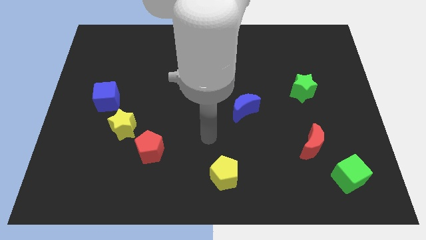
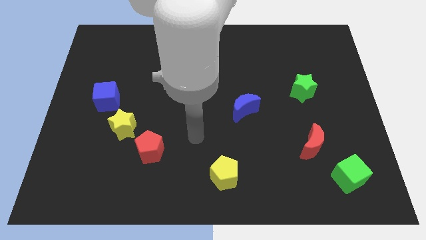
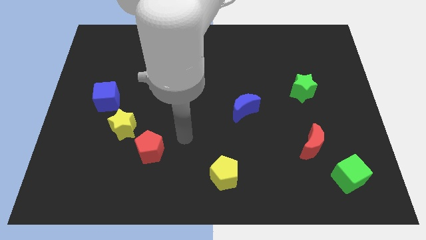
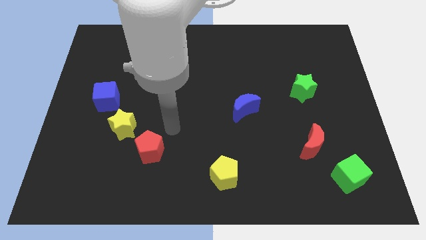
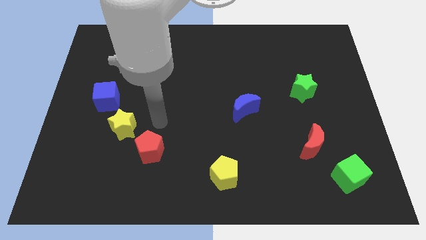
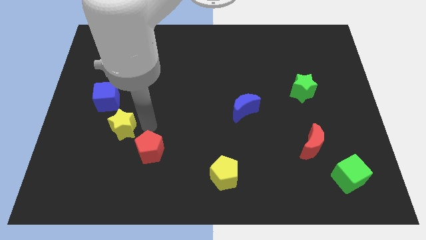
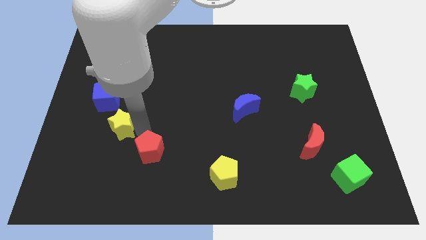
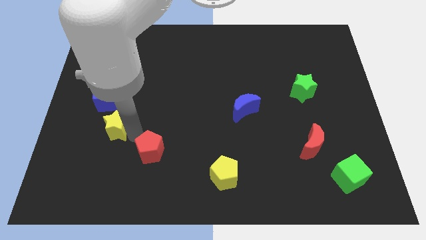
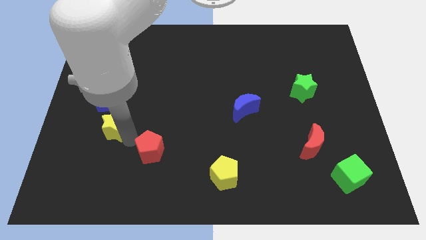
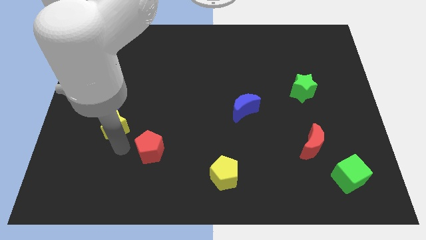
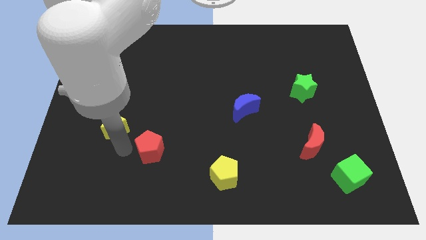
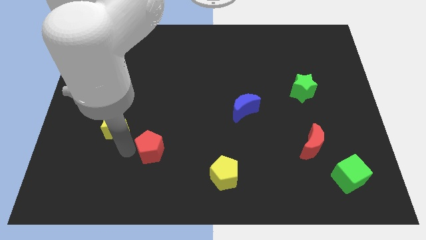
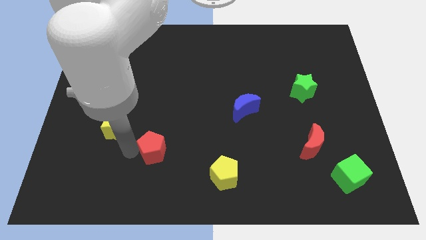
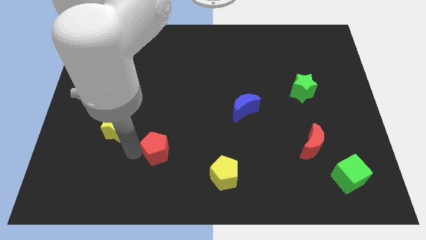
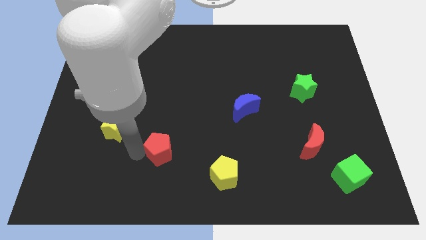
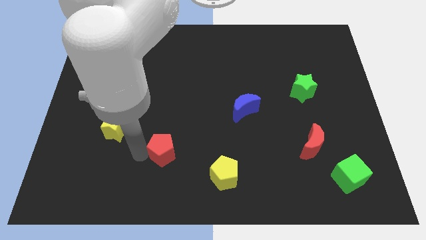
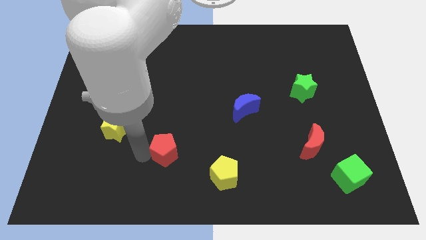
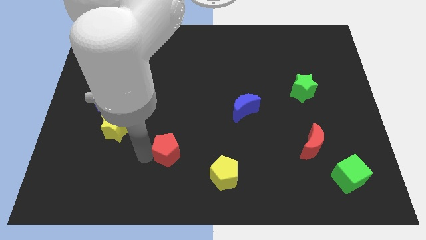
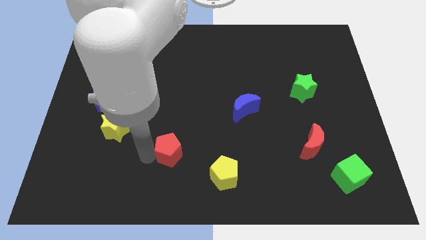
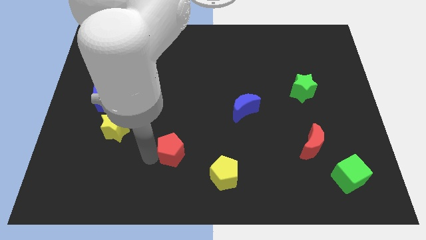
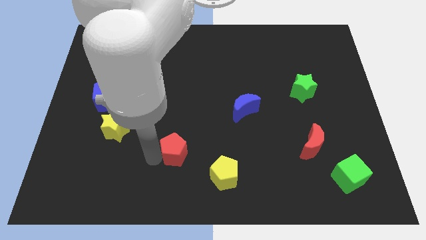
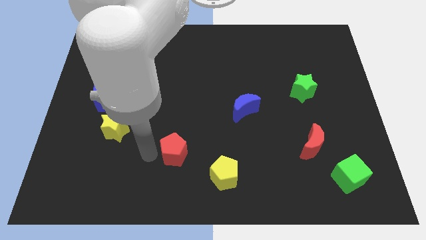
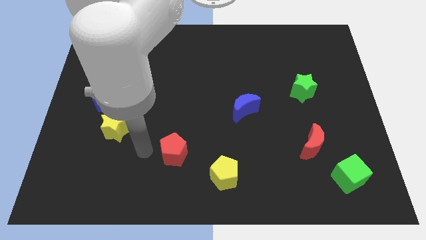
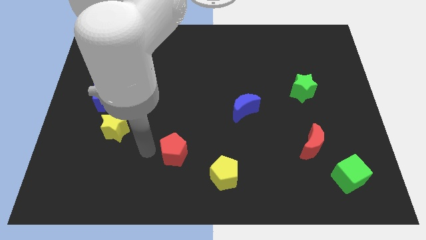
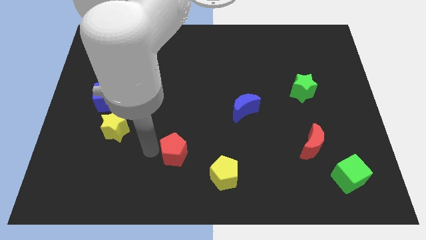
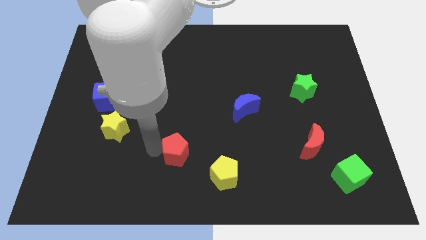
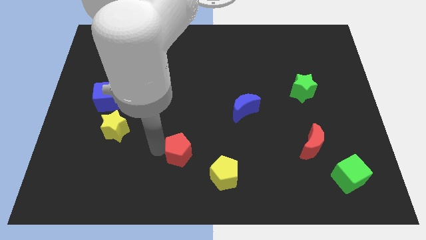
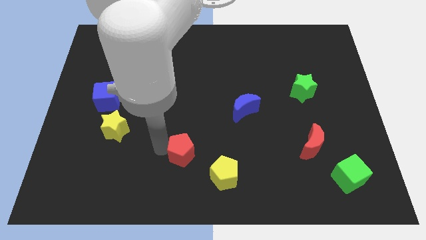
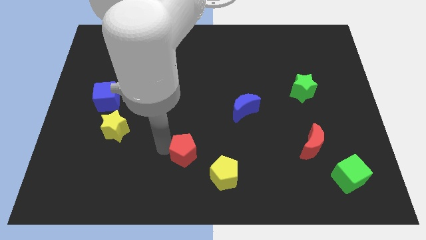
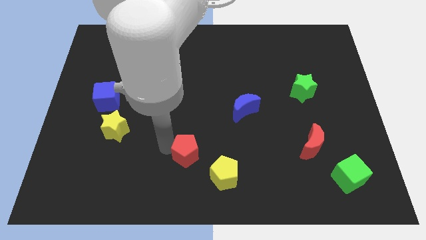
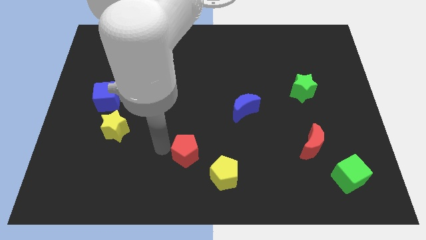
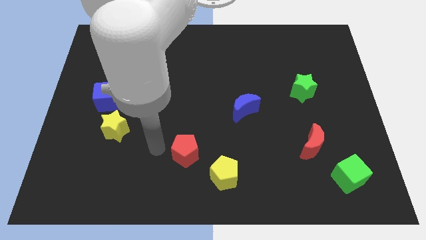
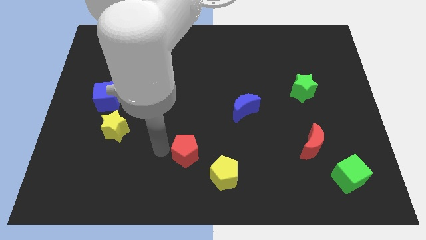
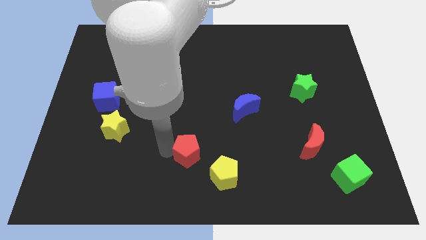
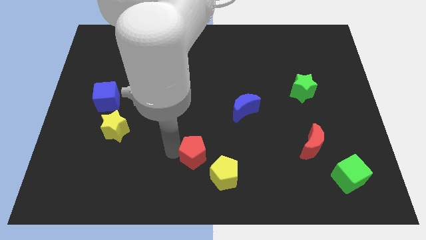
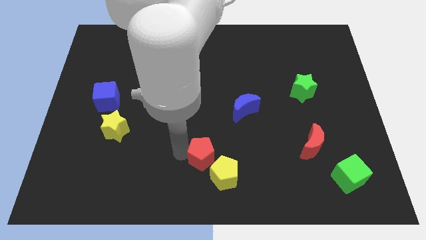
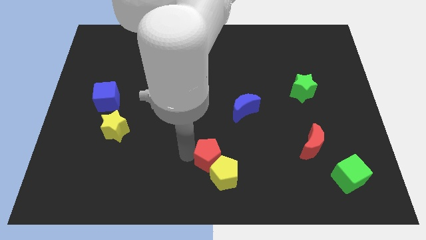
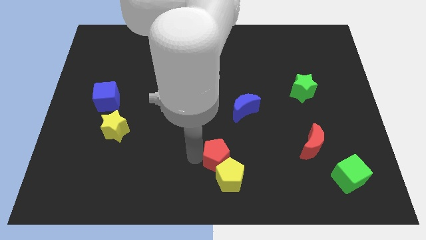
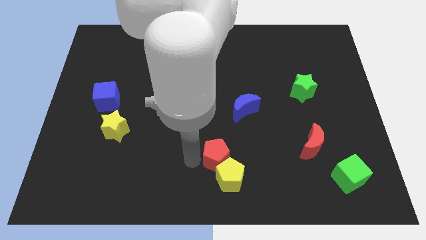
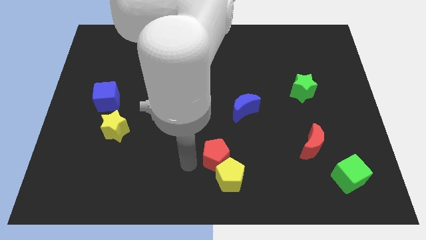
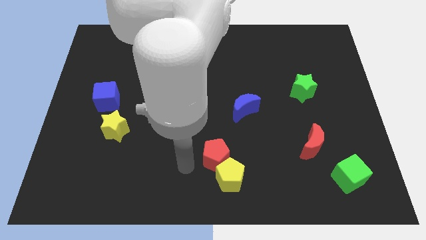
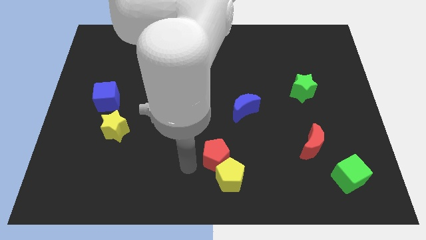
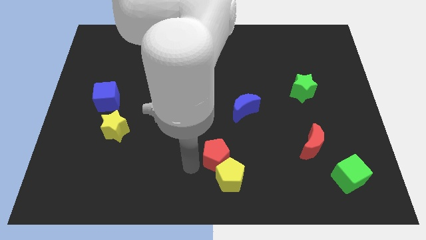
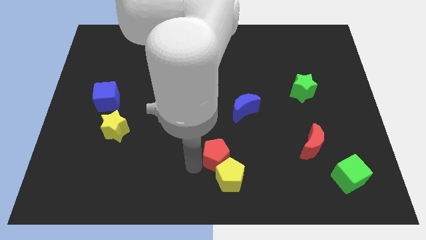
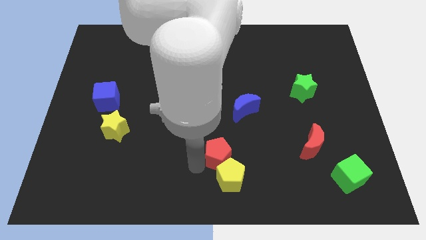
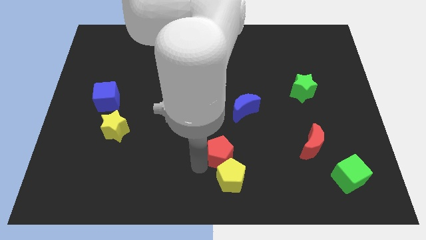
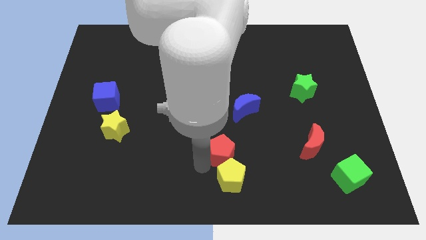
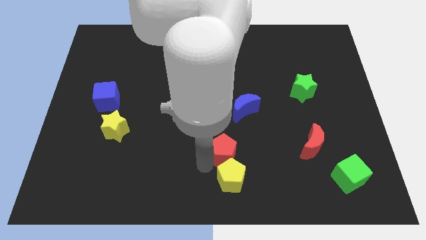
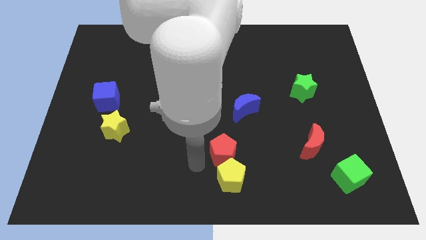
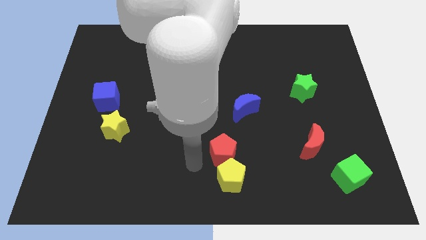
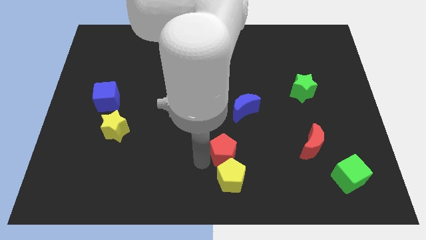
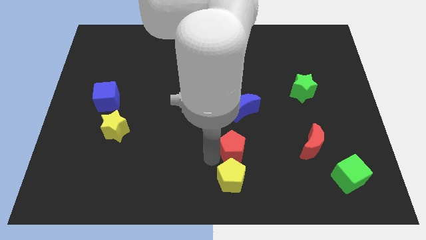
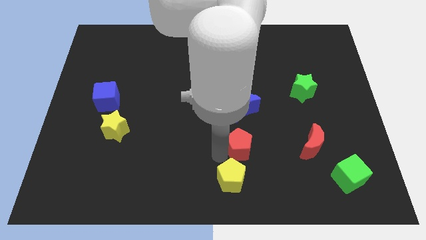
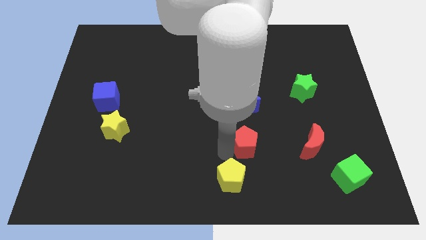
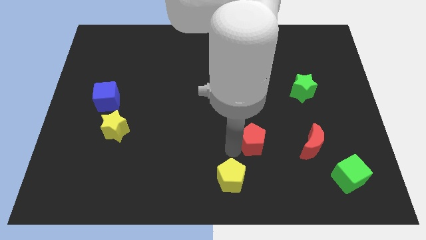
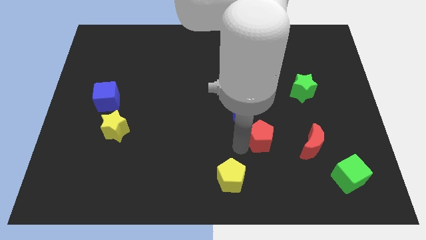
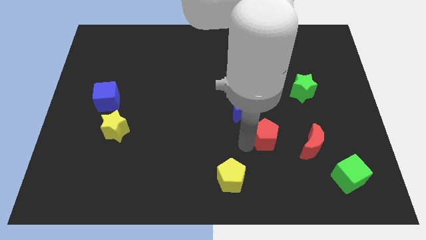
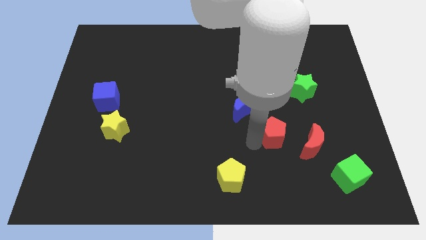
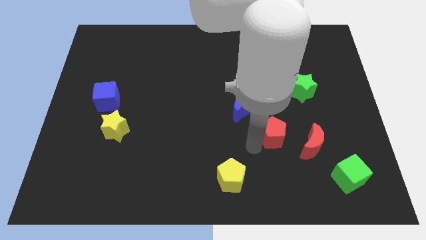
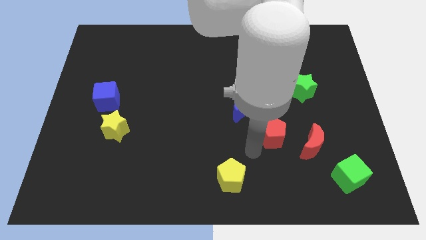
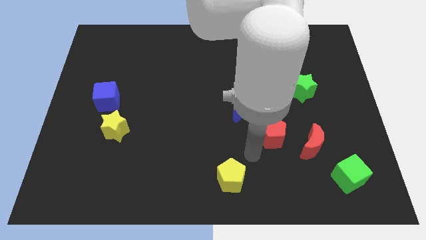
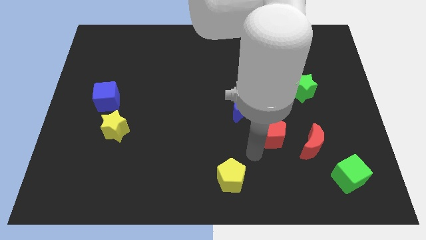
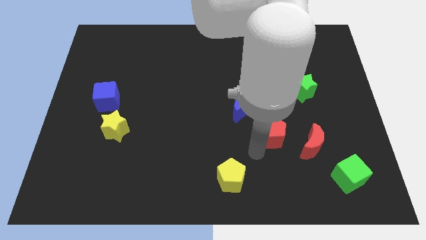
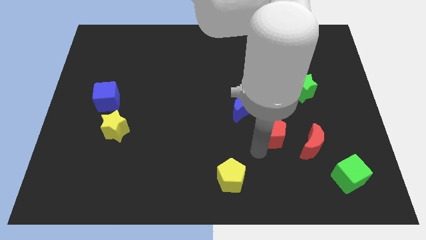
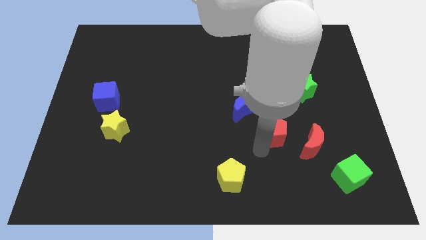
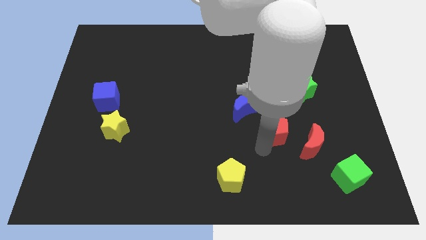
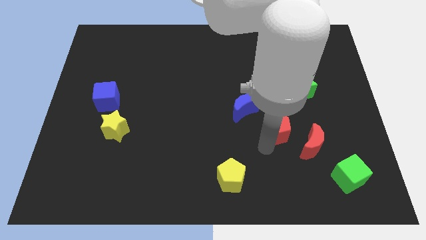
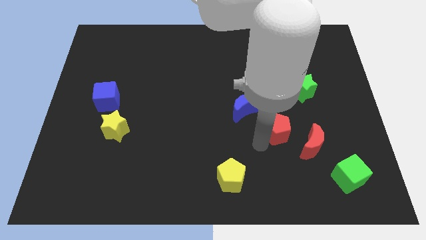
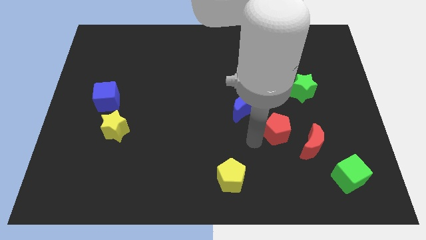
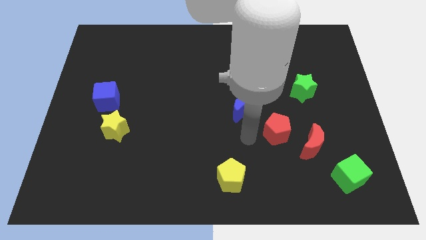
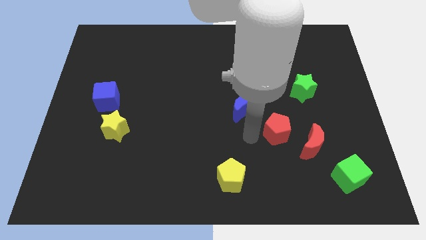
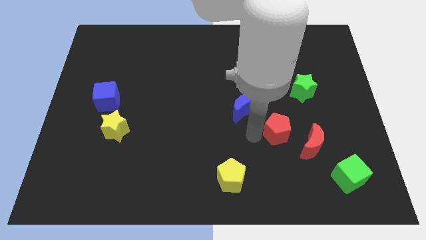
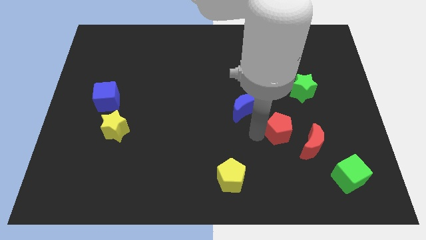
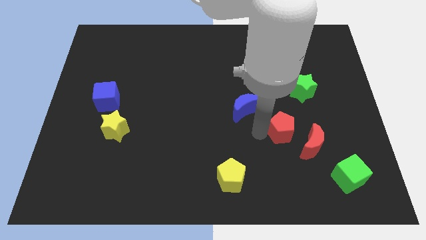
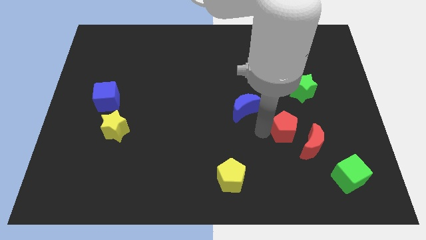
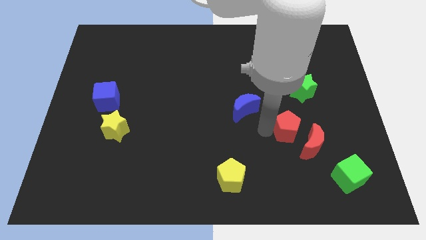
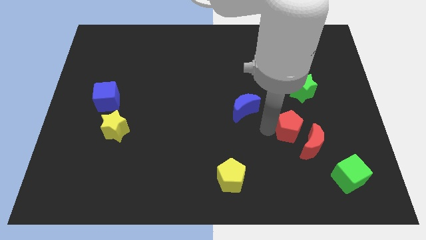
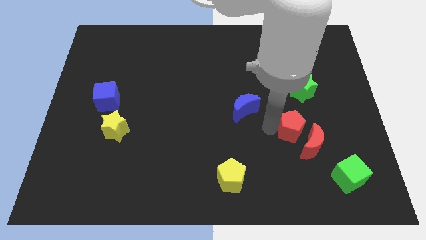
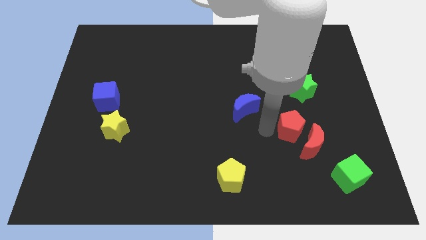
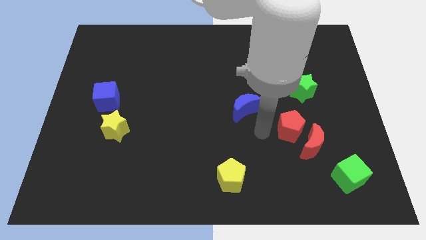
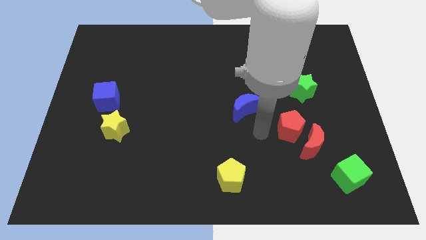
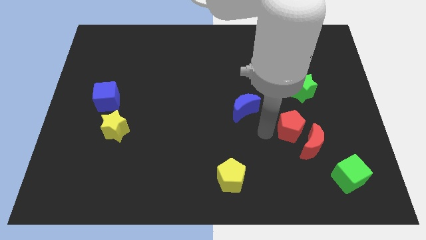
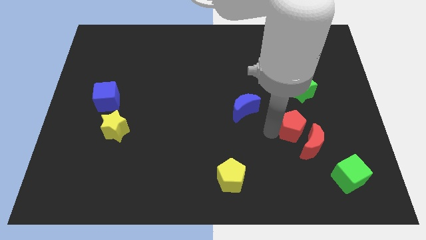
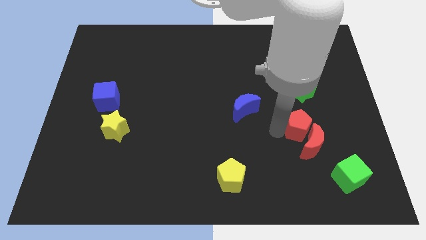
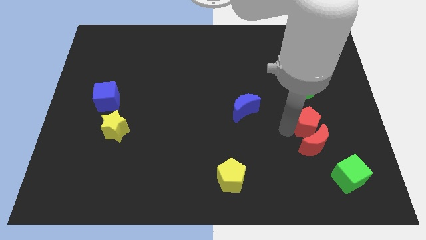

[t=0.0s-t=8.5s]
slide the red pentagon to the top right of the red moon
